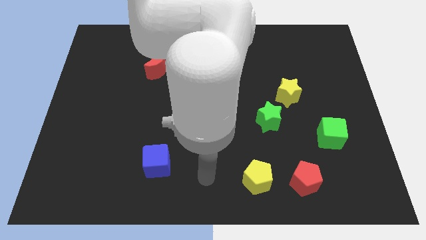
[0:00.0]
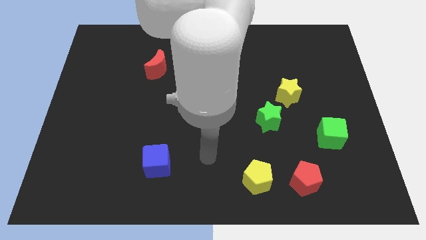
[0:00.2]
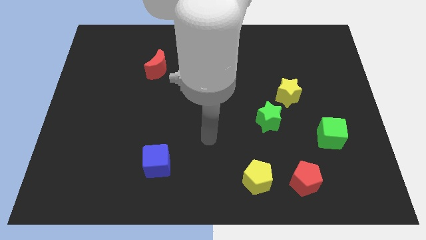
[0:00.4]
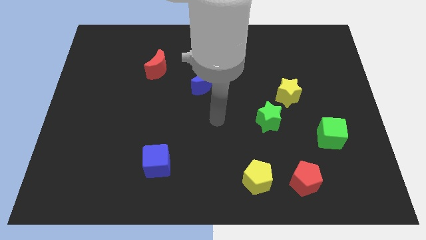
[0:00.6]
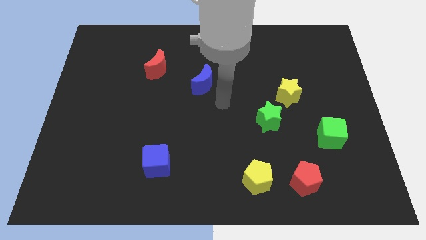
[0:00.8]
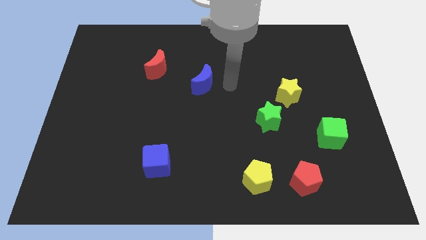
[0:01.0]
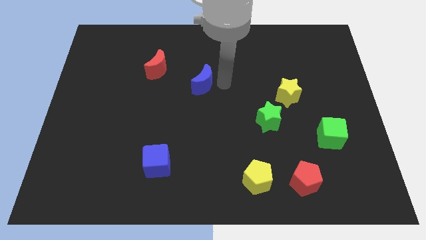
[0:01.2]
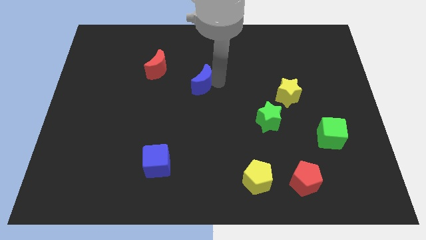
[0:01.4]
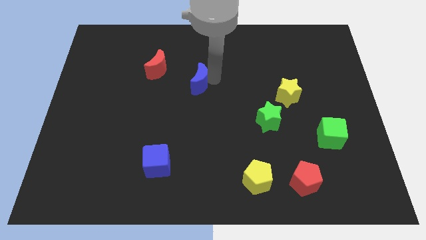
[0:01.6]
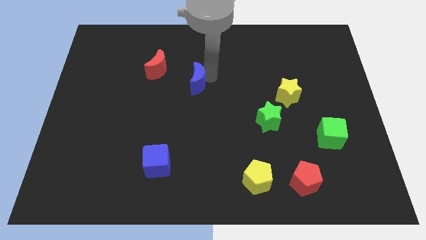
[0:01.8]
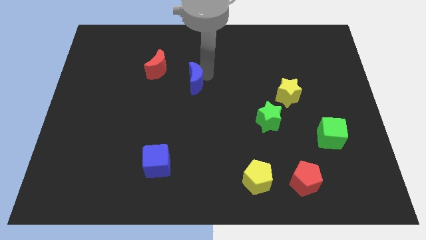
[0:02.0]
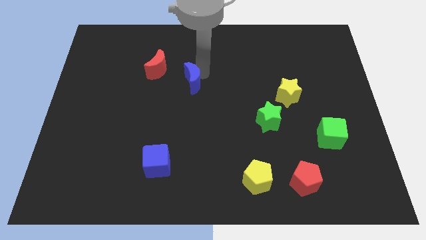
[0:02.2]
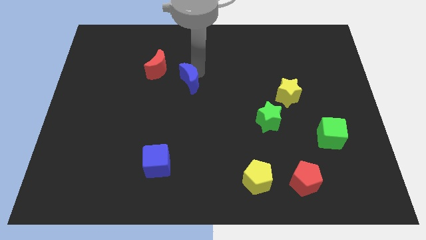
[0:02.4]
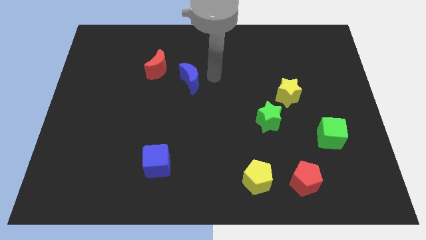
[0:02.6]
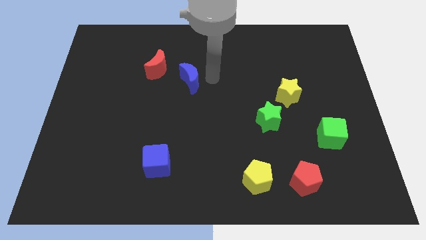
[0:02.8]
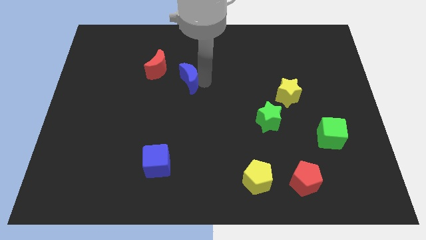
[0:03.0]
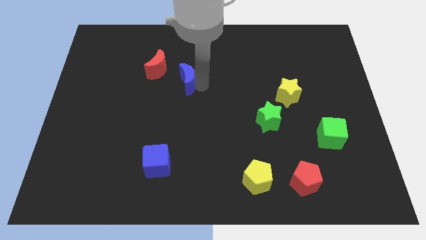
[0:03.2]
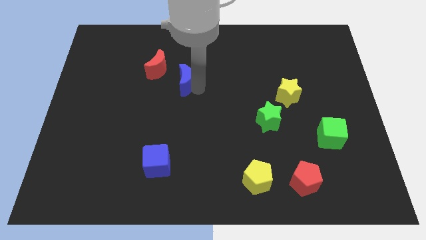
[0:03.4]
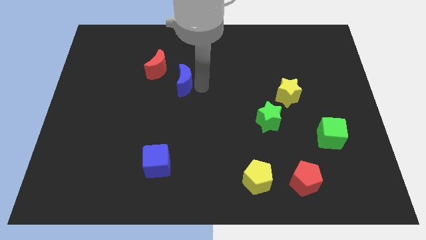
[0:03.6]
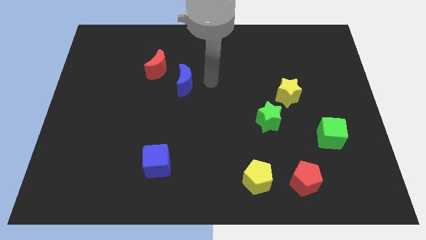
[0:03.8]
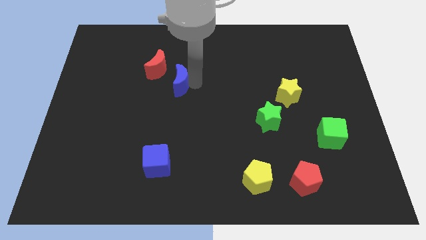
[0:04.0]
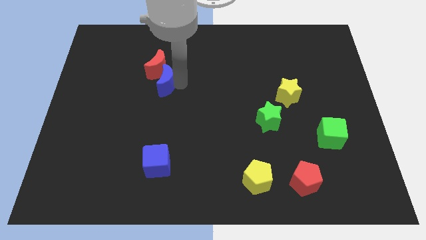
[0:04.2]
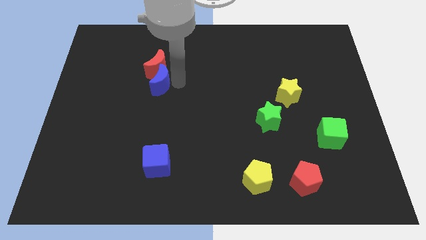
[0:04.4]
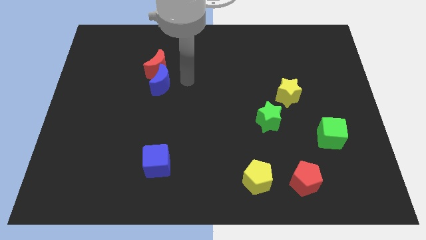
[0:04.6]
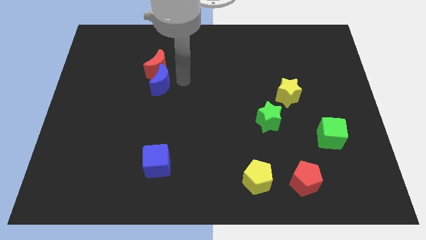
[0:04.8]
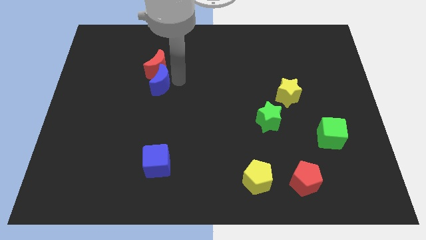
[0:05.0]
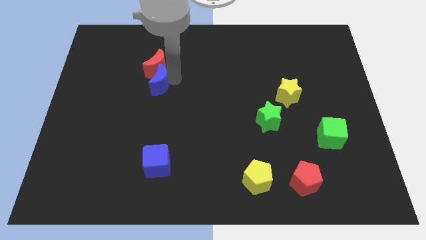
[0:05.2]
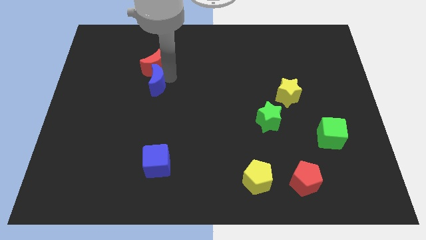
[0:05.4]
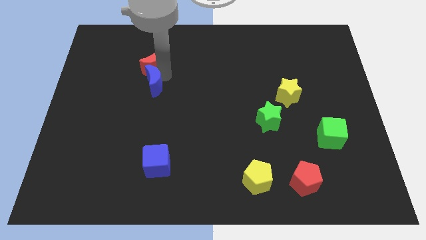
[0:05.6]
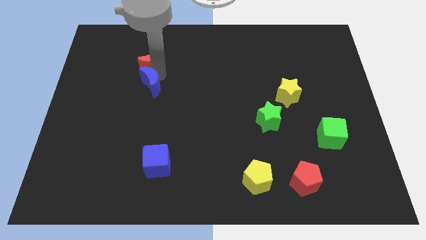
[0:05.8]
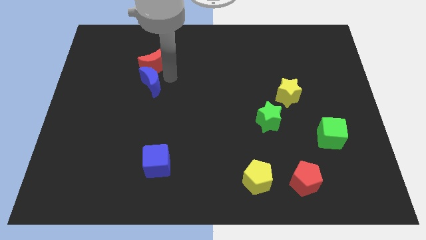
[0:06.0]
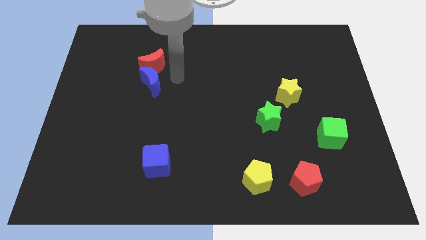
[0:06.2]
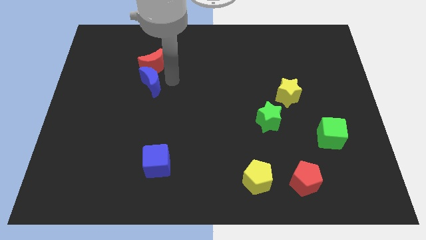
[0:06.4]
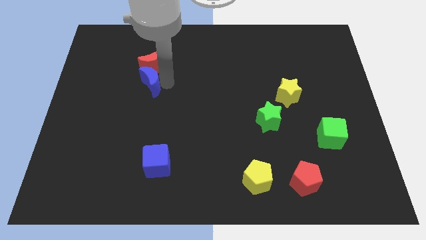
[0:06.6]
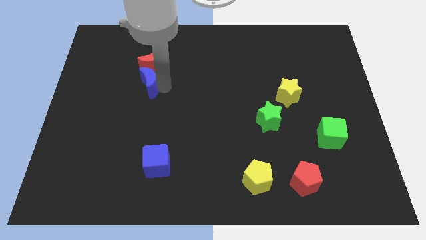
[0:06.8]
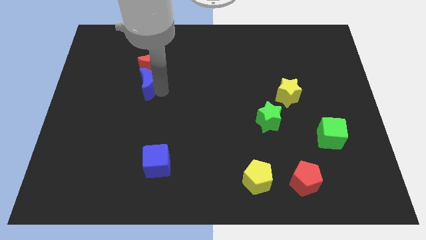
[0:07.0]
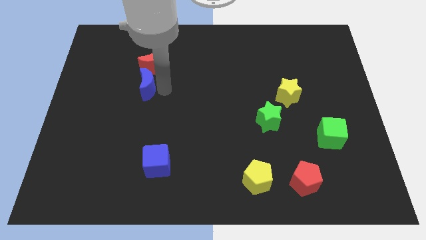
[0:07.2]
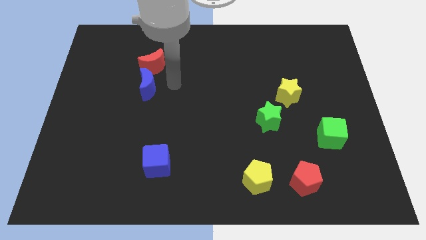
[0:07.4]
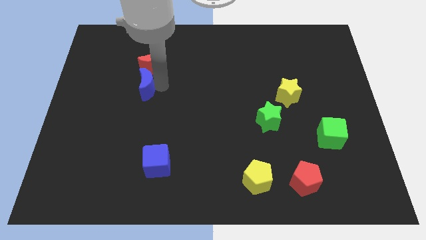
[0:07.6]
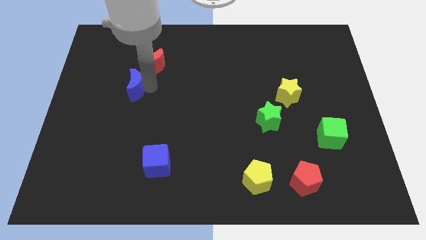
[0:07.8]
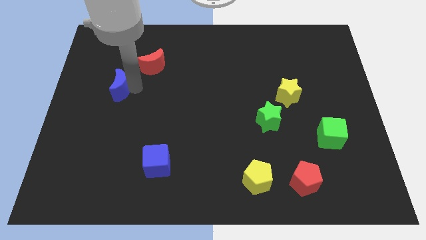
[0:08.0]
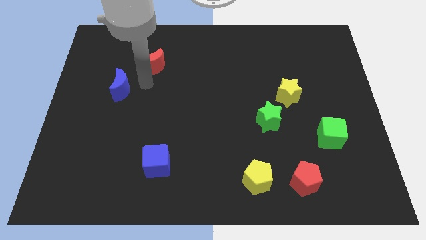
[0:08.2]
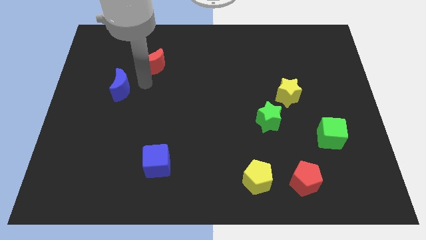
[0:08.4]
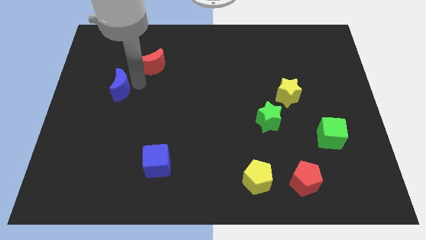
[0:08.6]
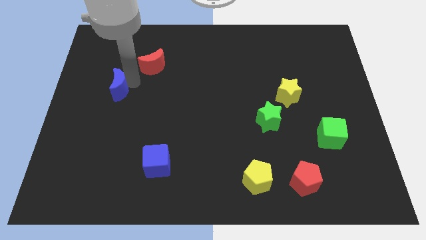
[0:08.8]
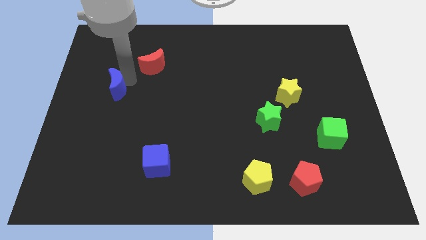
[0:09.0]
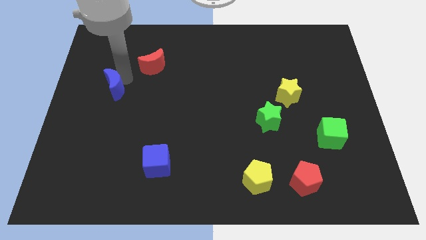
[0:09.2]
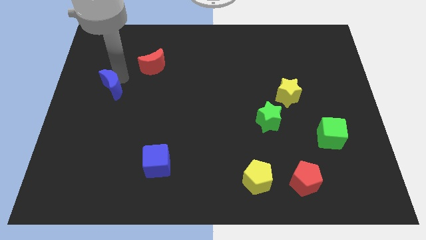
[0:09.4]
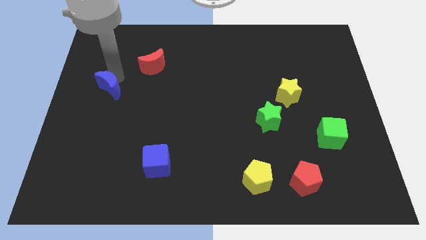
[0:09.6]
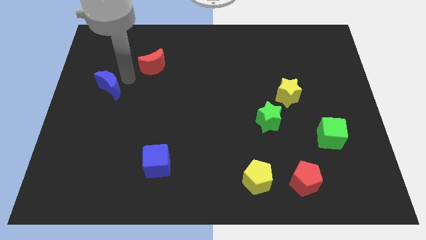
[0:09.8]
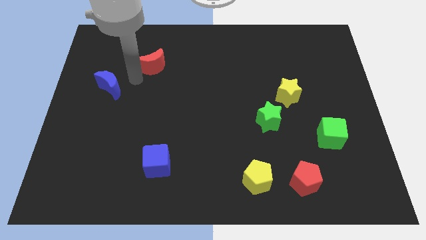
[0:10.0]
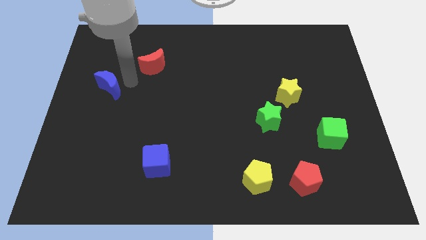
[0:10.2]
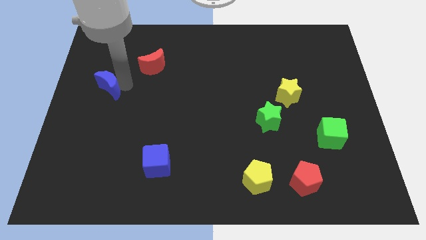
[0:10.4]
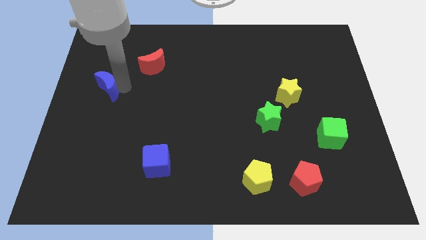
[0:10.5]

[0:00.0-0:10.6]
slide the blue moon to the center left

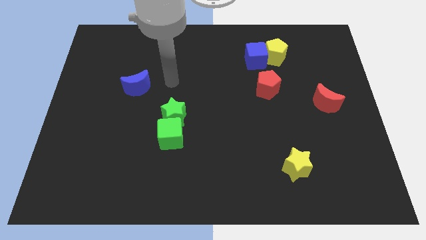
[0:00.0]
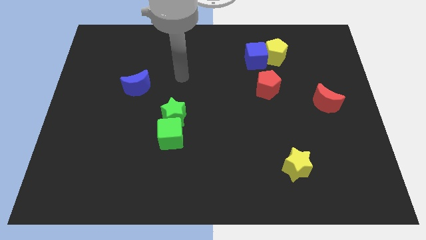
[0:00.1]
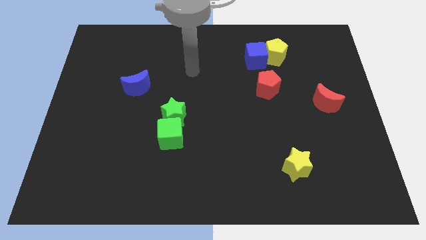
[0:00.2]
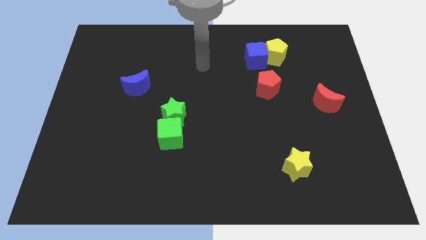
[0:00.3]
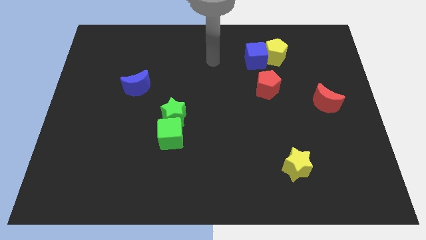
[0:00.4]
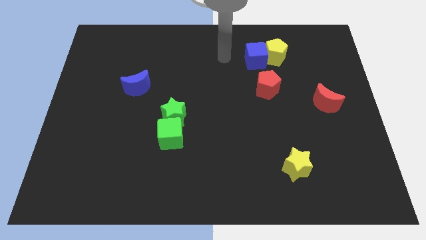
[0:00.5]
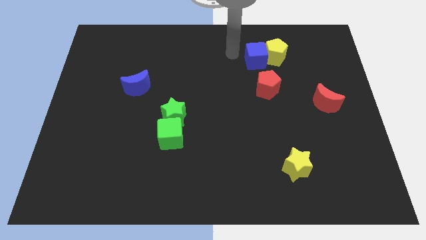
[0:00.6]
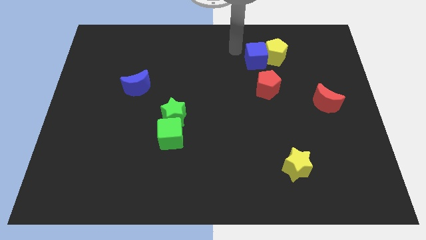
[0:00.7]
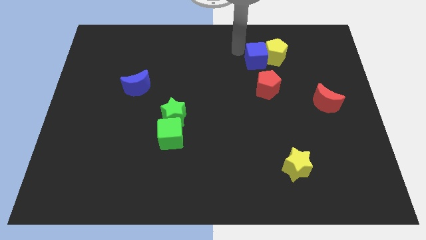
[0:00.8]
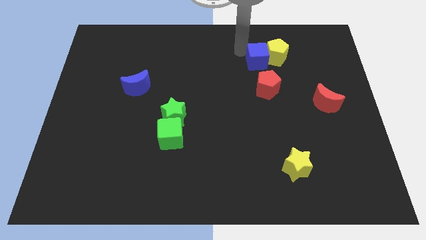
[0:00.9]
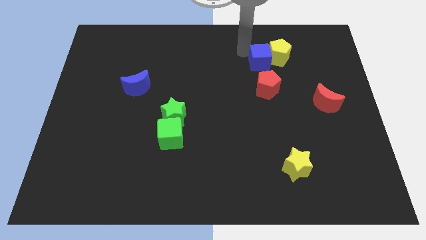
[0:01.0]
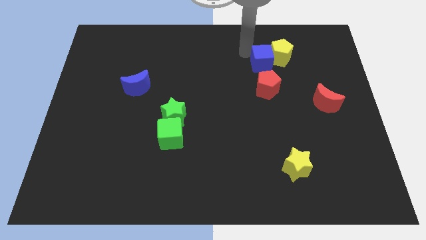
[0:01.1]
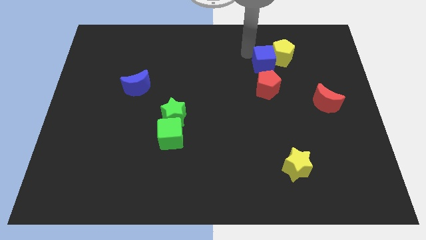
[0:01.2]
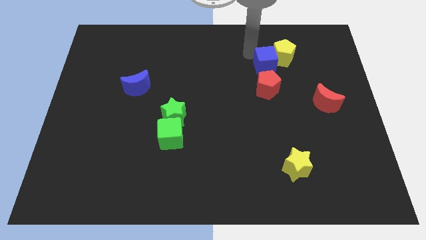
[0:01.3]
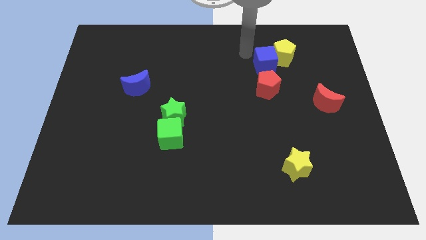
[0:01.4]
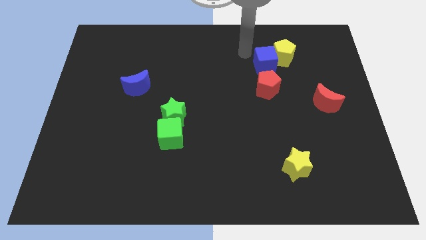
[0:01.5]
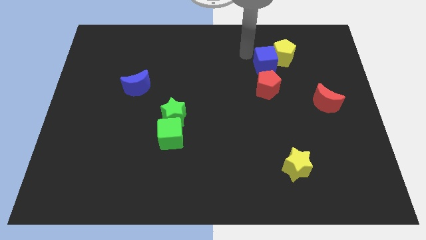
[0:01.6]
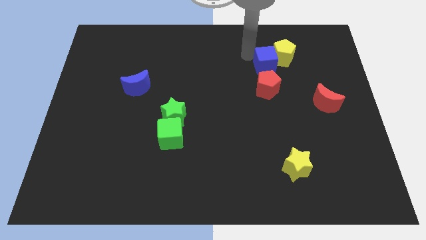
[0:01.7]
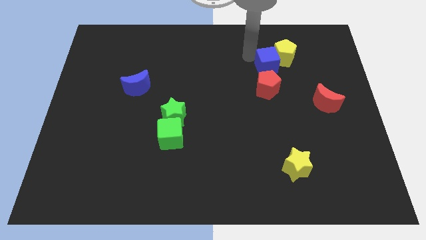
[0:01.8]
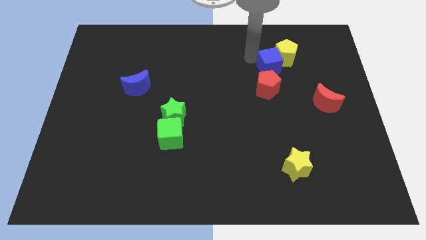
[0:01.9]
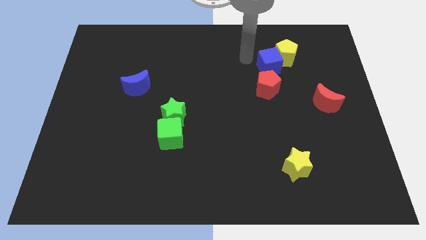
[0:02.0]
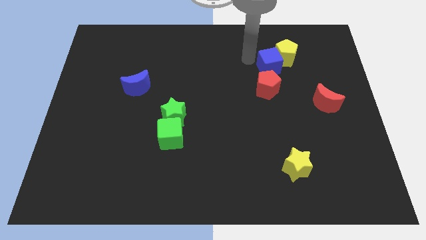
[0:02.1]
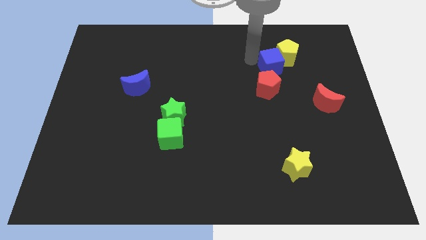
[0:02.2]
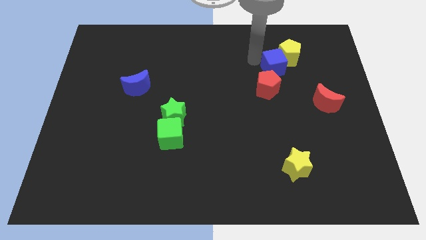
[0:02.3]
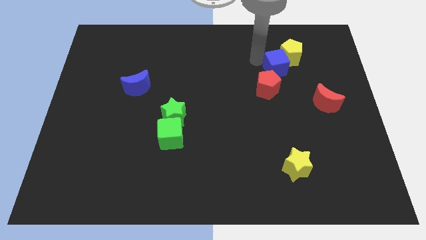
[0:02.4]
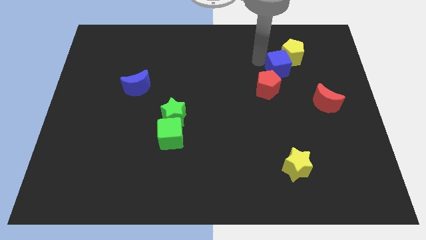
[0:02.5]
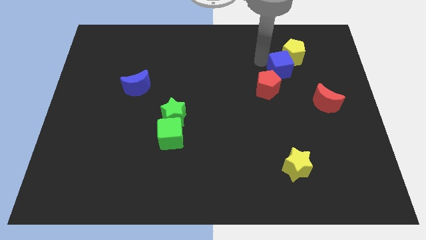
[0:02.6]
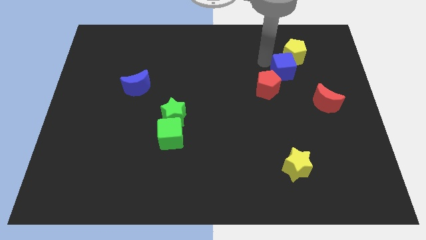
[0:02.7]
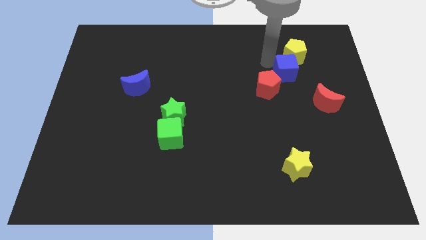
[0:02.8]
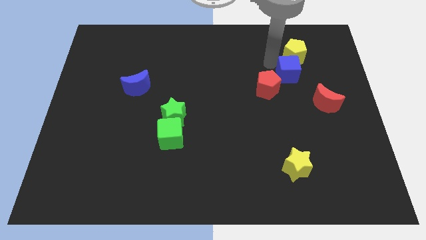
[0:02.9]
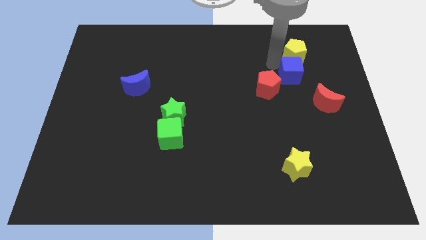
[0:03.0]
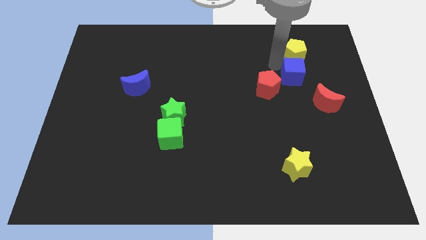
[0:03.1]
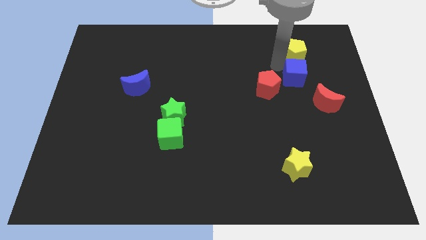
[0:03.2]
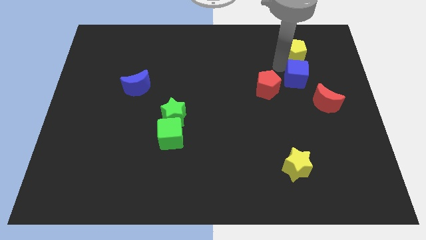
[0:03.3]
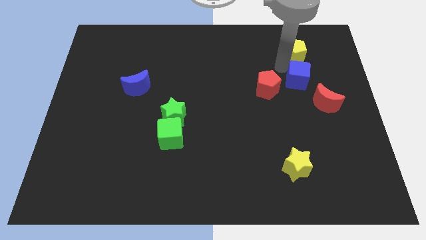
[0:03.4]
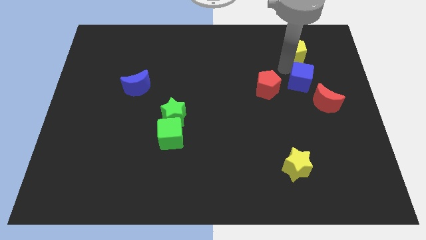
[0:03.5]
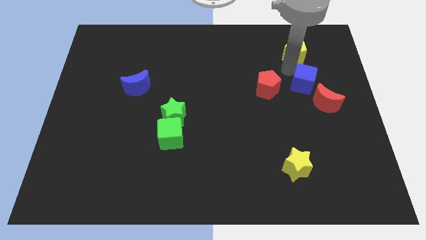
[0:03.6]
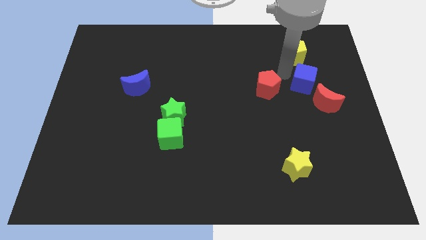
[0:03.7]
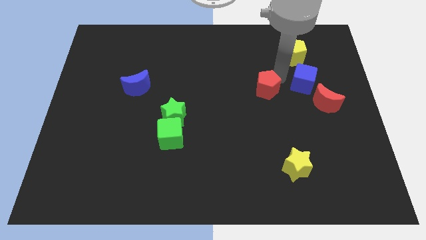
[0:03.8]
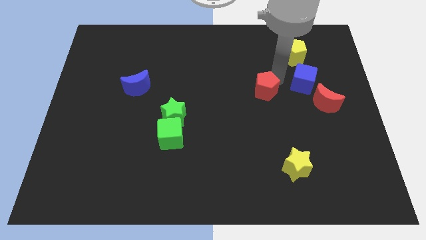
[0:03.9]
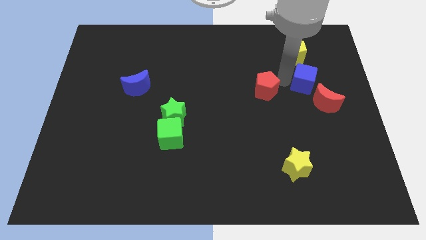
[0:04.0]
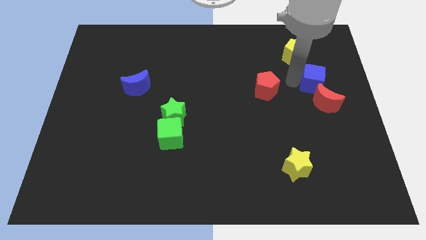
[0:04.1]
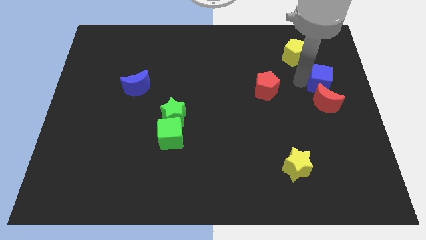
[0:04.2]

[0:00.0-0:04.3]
slide the blue cube to the right side
